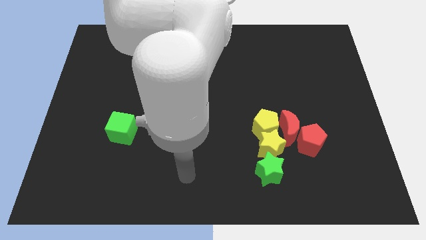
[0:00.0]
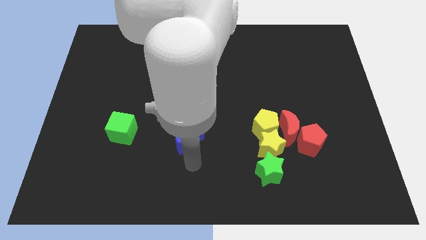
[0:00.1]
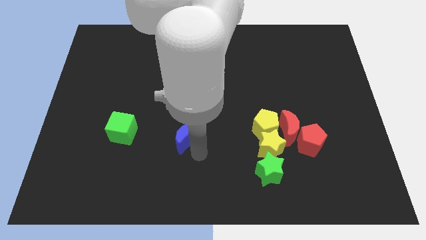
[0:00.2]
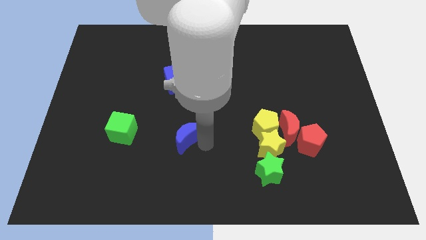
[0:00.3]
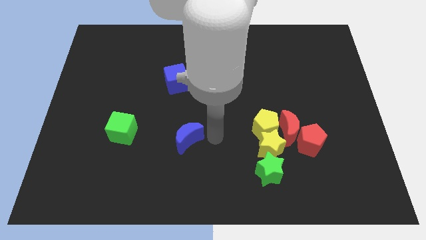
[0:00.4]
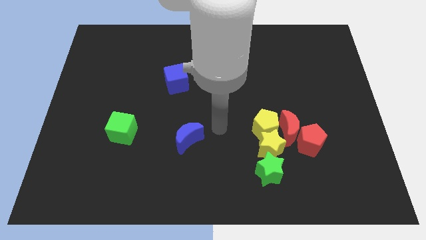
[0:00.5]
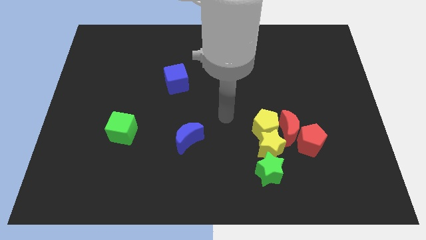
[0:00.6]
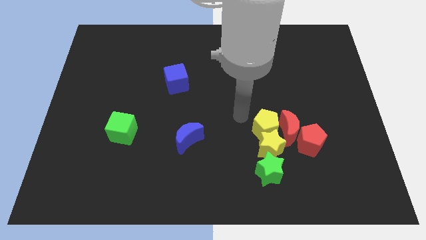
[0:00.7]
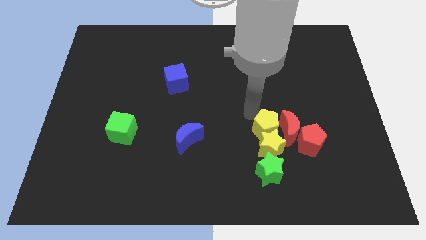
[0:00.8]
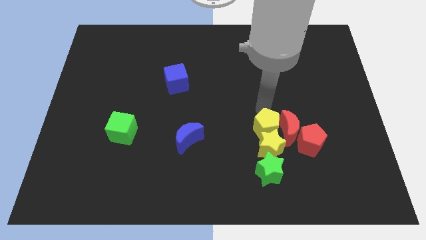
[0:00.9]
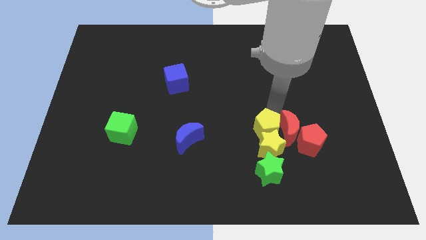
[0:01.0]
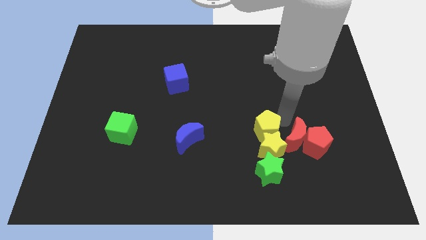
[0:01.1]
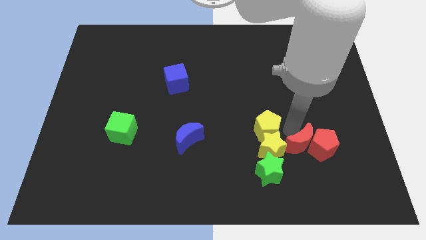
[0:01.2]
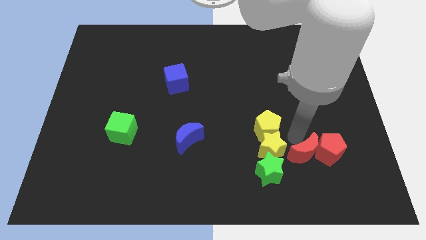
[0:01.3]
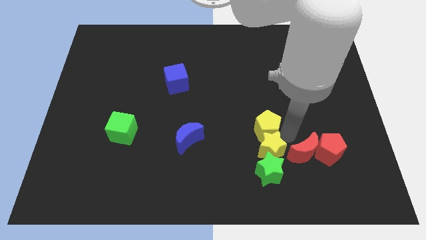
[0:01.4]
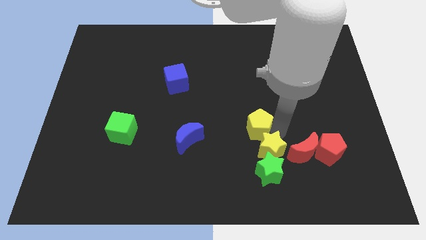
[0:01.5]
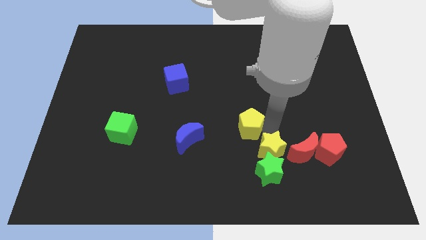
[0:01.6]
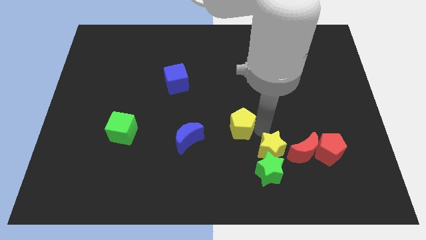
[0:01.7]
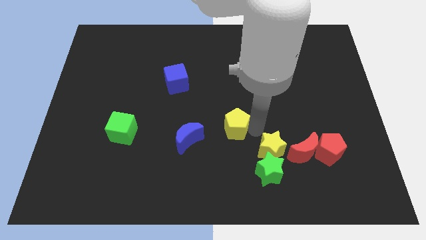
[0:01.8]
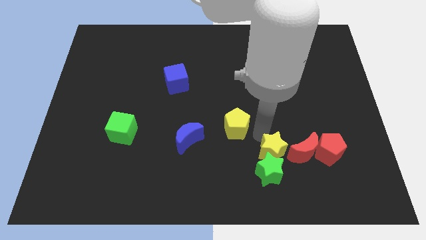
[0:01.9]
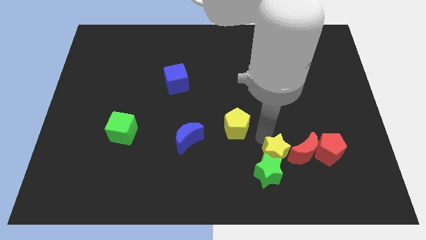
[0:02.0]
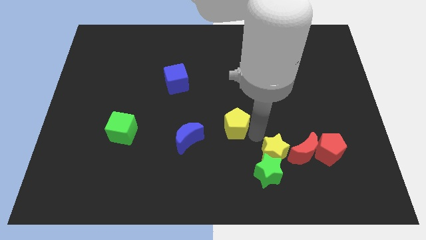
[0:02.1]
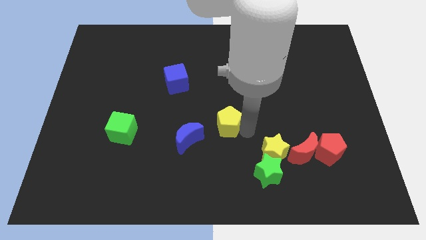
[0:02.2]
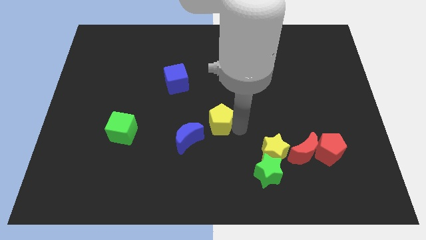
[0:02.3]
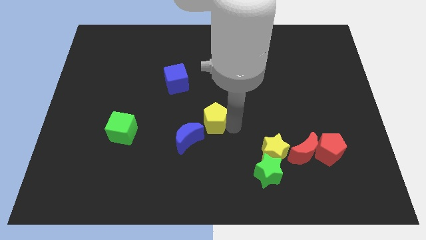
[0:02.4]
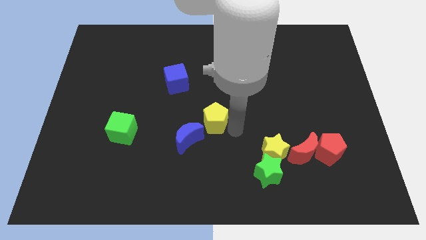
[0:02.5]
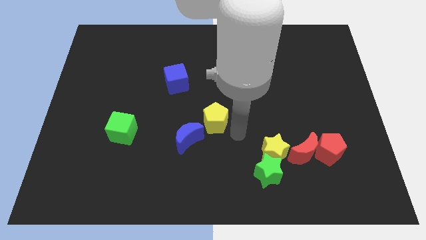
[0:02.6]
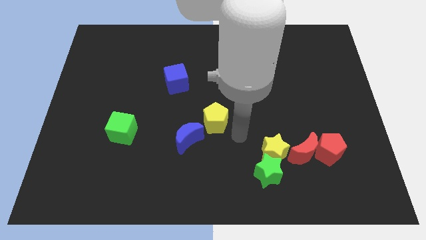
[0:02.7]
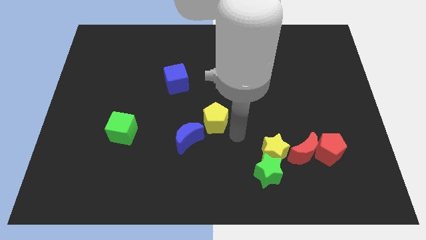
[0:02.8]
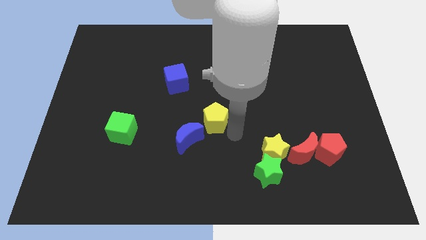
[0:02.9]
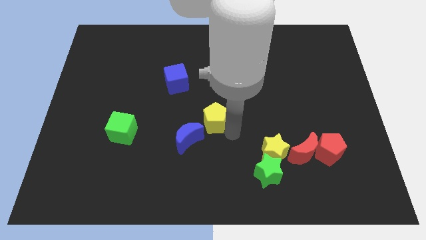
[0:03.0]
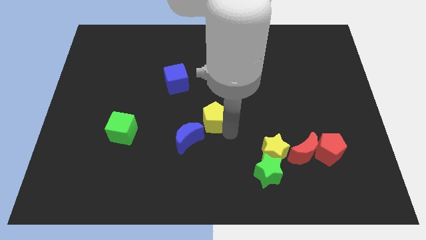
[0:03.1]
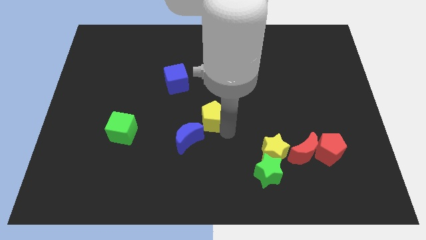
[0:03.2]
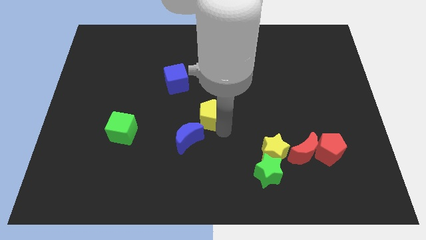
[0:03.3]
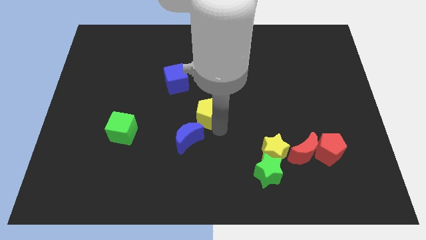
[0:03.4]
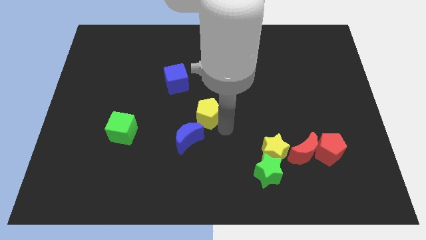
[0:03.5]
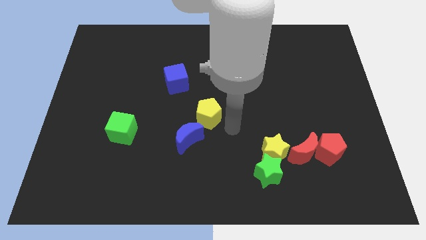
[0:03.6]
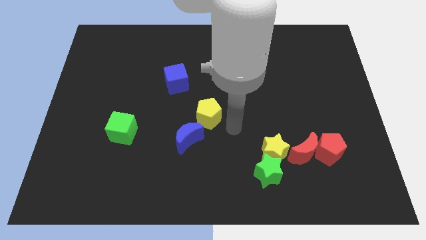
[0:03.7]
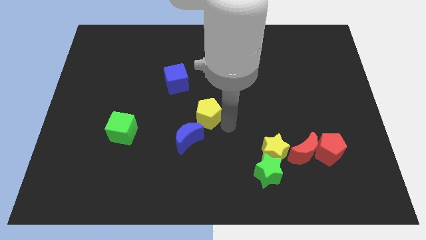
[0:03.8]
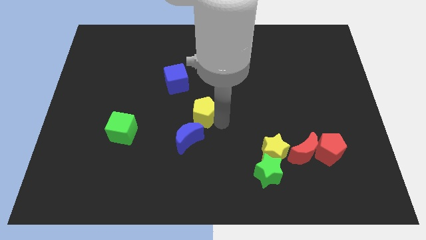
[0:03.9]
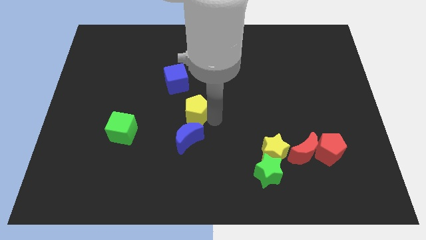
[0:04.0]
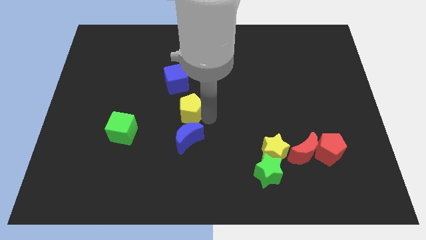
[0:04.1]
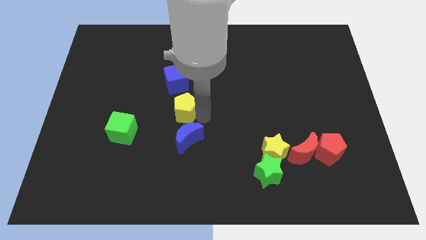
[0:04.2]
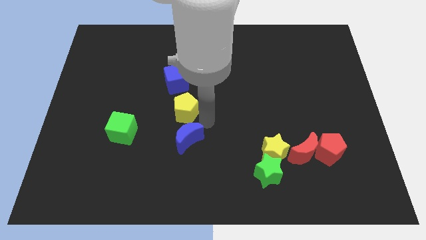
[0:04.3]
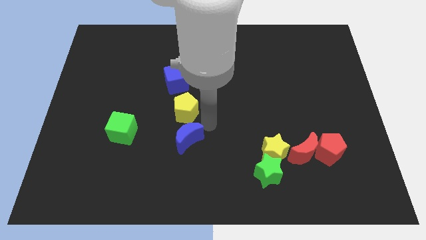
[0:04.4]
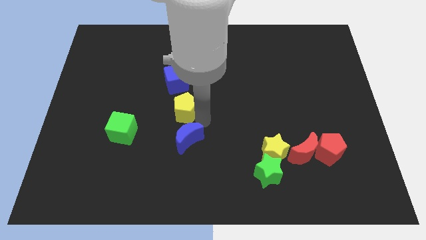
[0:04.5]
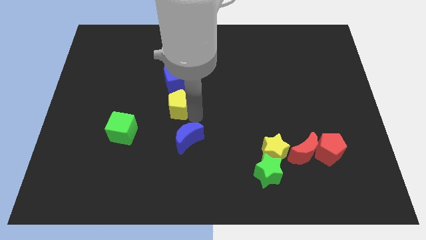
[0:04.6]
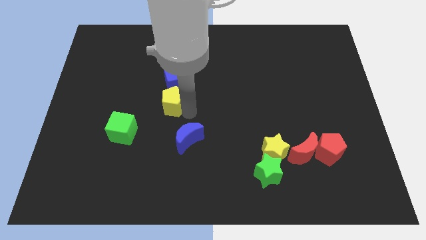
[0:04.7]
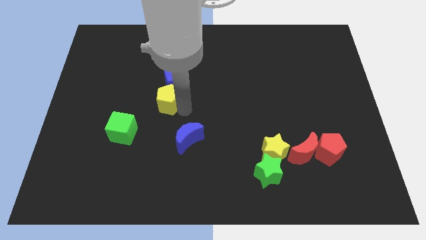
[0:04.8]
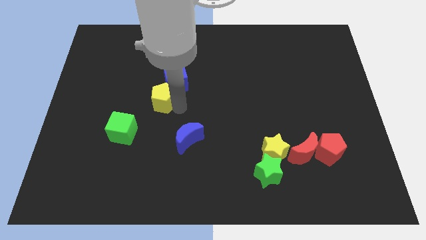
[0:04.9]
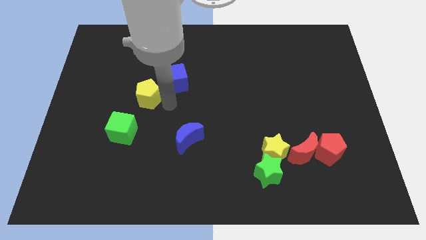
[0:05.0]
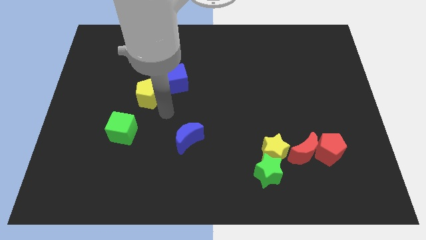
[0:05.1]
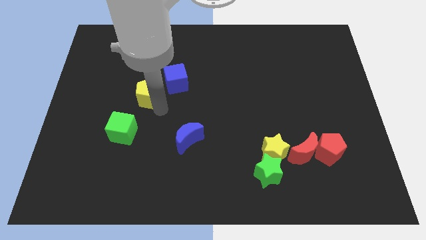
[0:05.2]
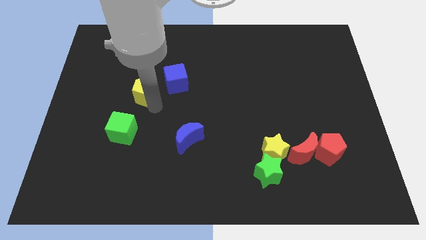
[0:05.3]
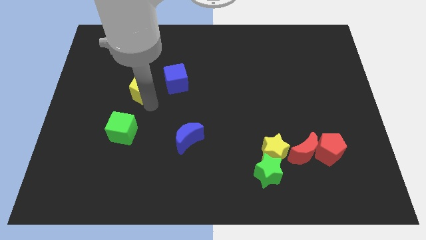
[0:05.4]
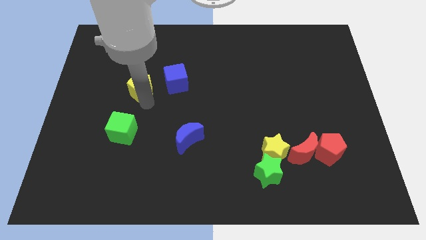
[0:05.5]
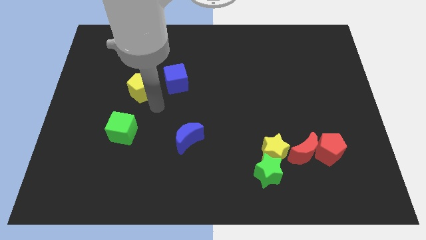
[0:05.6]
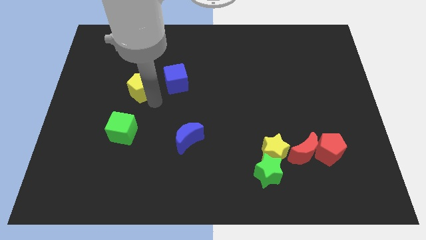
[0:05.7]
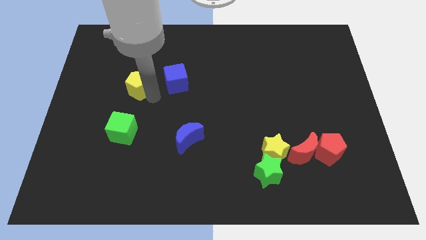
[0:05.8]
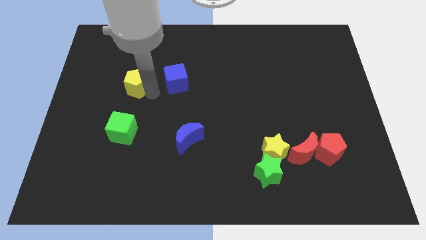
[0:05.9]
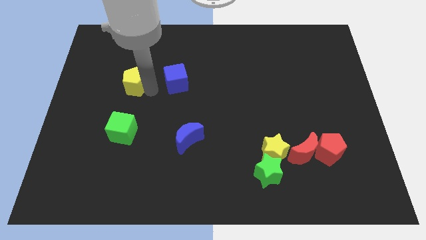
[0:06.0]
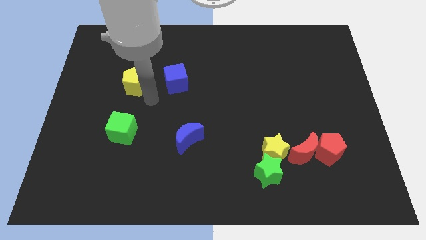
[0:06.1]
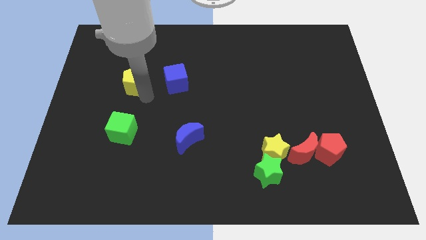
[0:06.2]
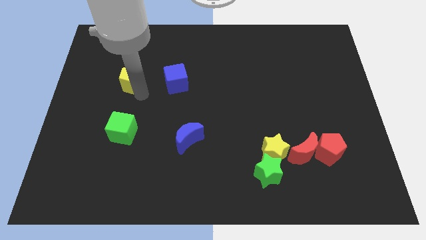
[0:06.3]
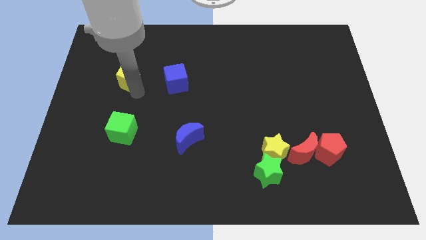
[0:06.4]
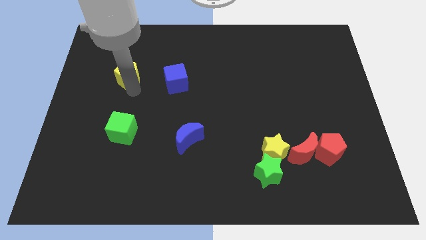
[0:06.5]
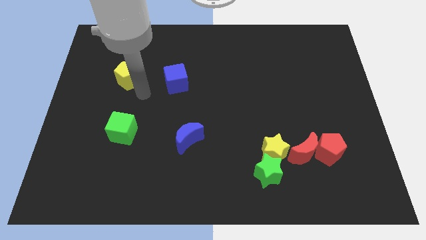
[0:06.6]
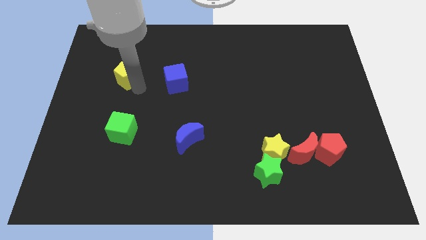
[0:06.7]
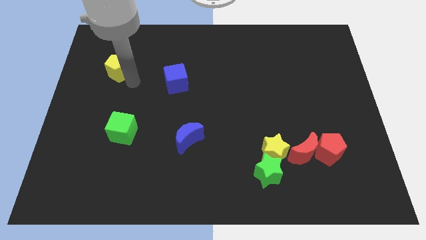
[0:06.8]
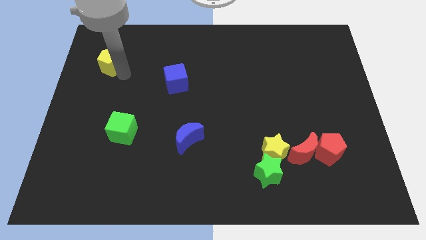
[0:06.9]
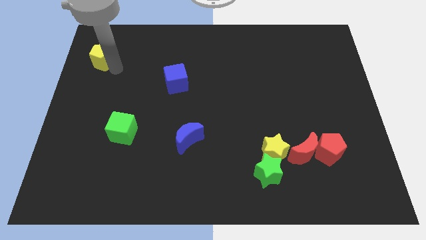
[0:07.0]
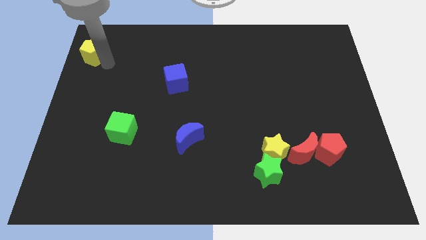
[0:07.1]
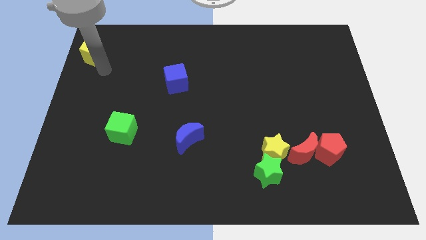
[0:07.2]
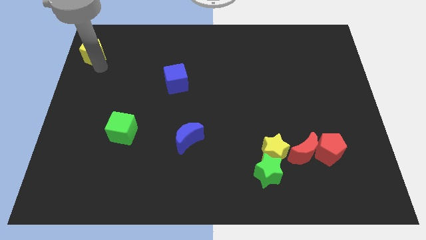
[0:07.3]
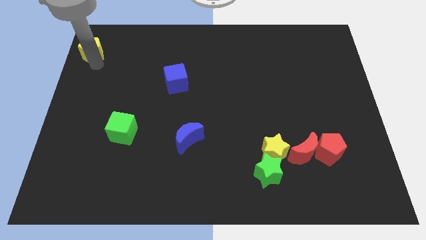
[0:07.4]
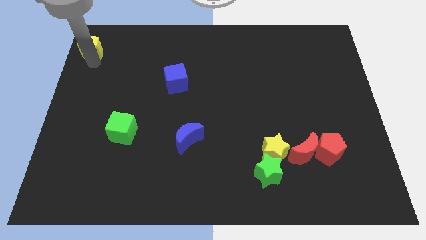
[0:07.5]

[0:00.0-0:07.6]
slide the yellow pentagon to the top left corner
